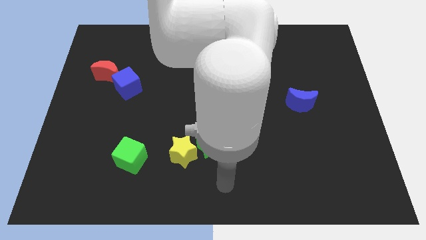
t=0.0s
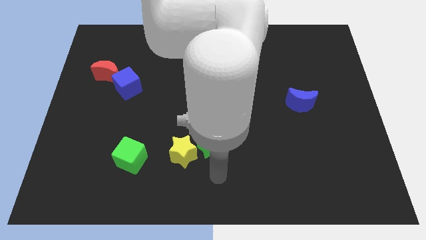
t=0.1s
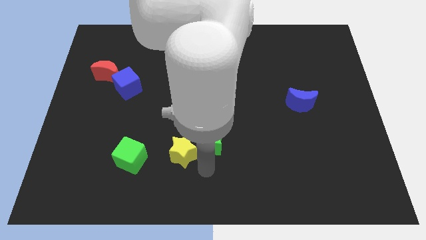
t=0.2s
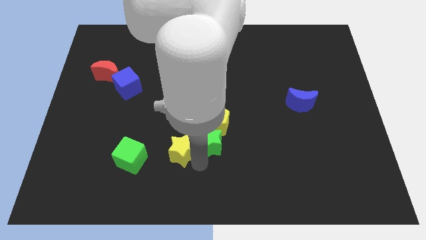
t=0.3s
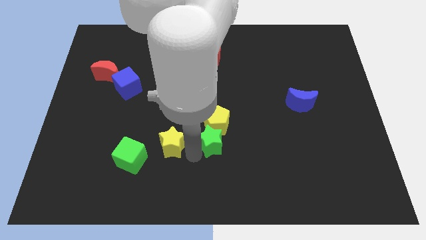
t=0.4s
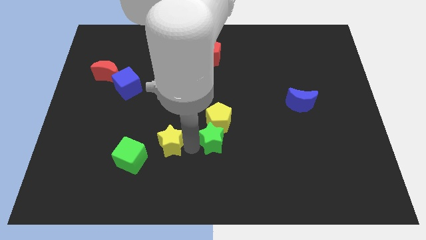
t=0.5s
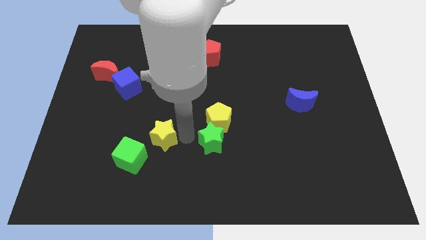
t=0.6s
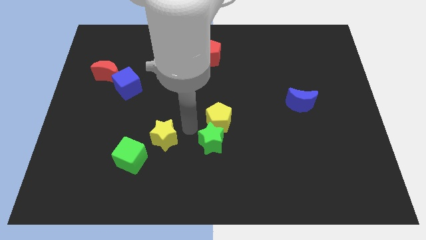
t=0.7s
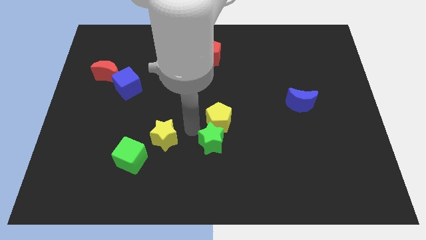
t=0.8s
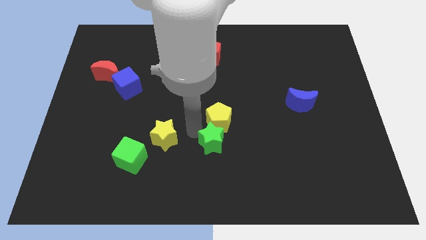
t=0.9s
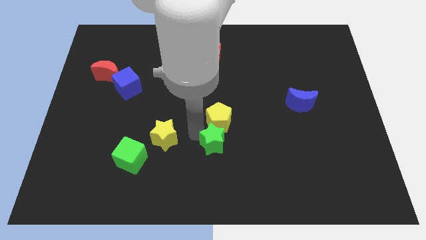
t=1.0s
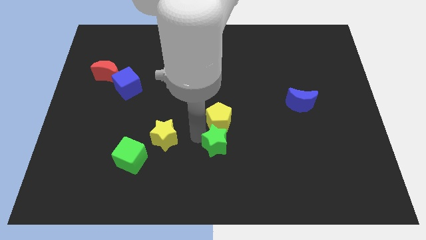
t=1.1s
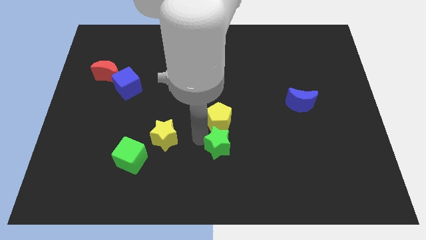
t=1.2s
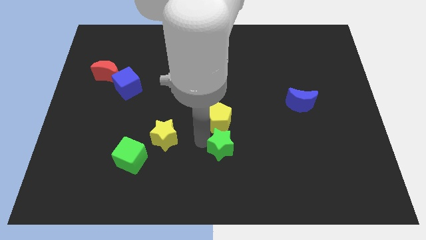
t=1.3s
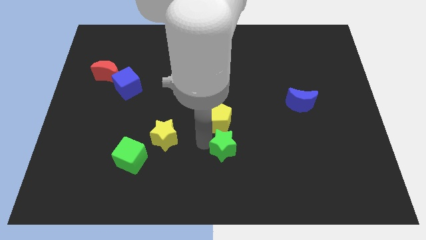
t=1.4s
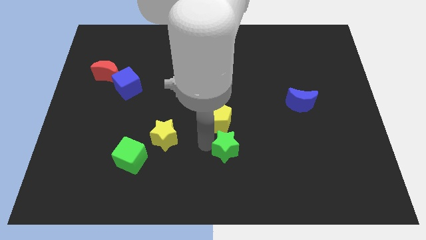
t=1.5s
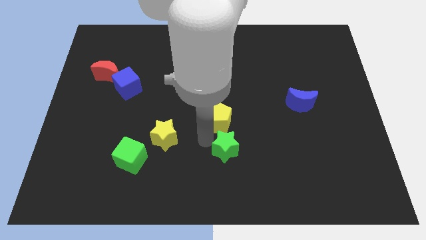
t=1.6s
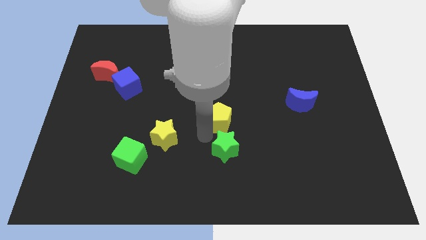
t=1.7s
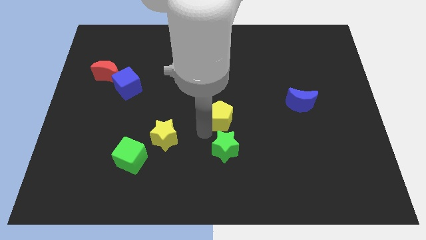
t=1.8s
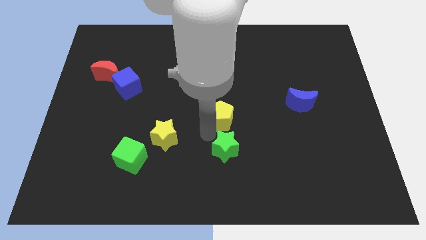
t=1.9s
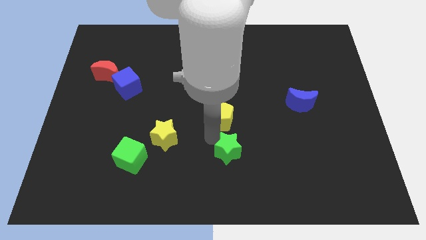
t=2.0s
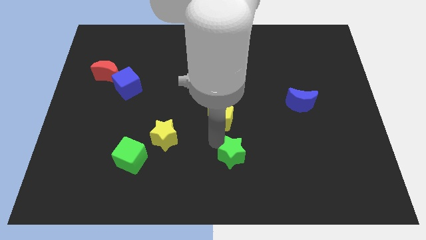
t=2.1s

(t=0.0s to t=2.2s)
move the green star away from the yellow pentagon and yellow star

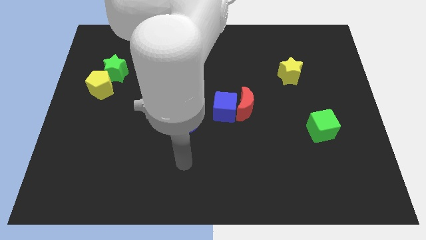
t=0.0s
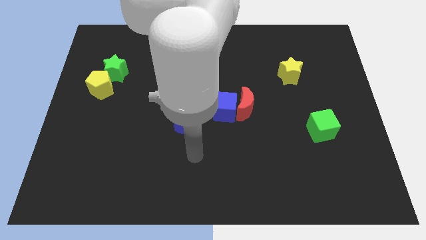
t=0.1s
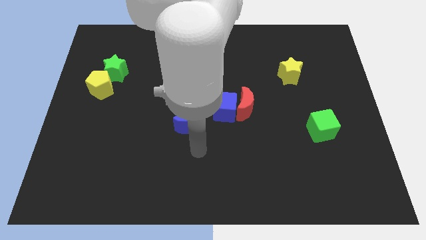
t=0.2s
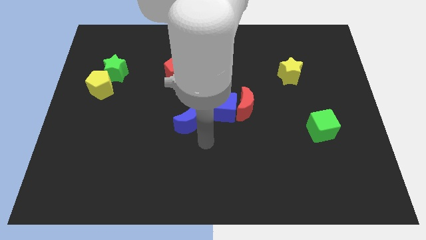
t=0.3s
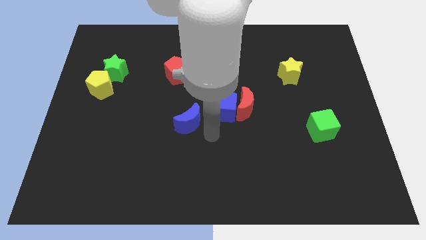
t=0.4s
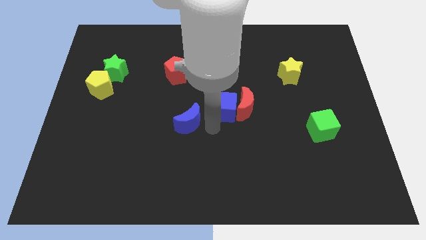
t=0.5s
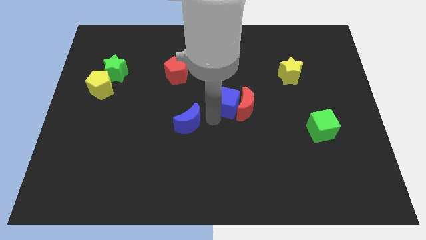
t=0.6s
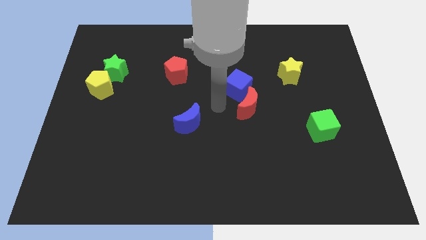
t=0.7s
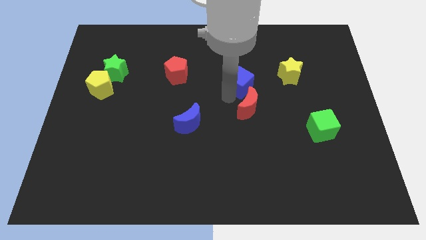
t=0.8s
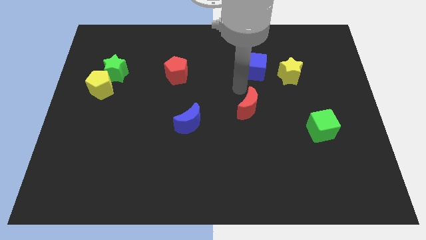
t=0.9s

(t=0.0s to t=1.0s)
pull the red moon apart from the blue cube

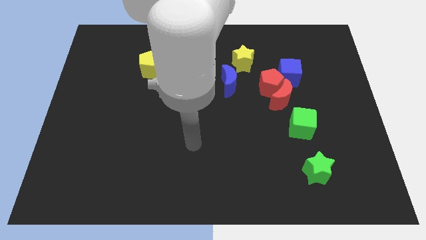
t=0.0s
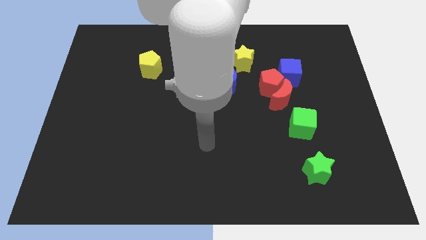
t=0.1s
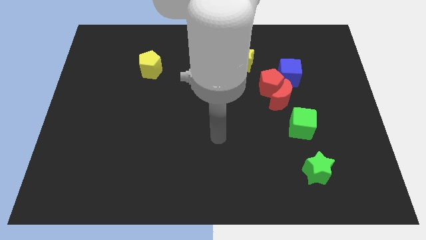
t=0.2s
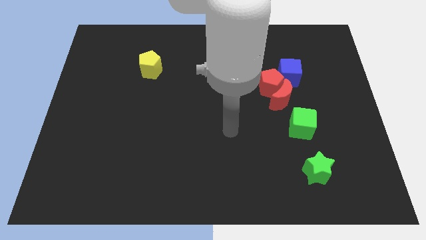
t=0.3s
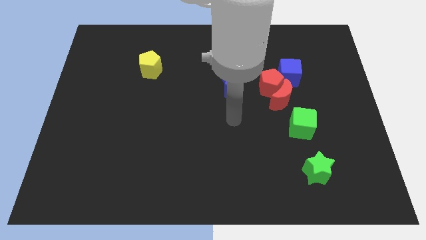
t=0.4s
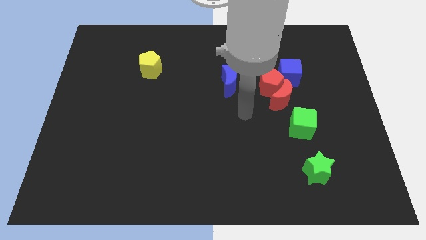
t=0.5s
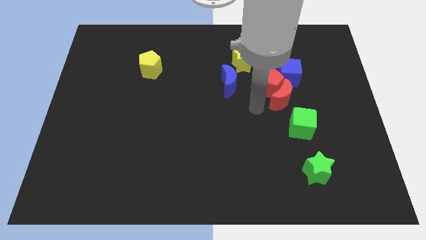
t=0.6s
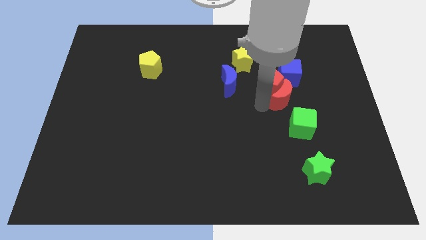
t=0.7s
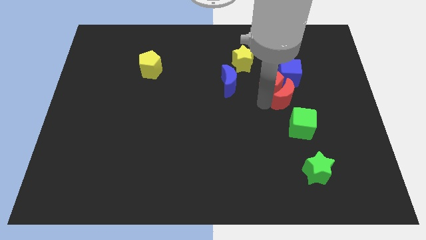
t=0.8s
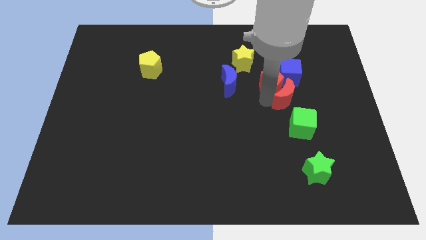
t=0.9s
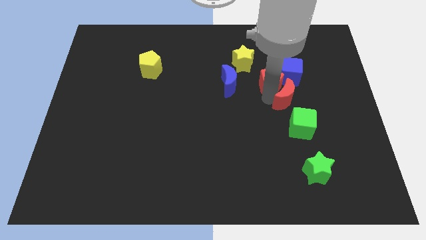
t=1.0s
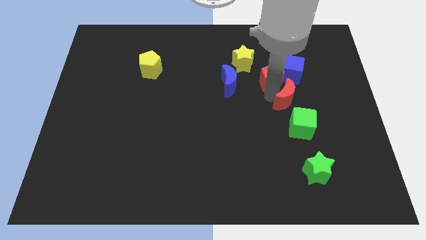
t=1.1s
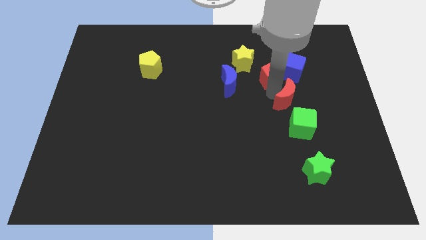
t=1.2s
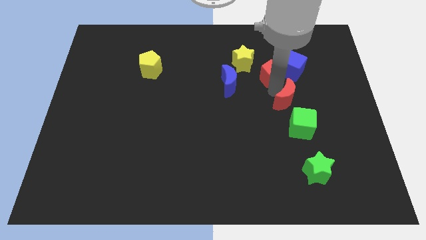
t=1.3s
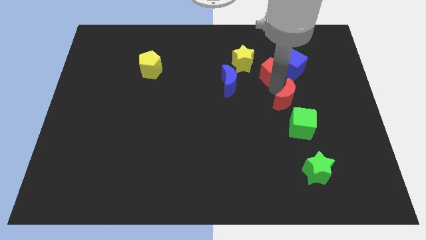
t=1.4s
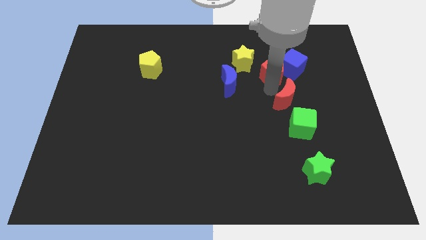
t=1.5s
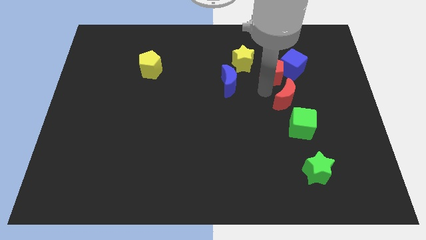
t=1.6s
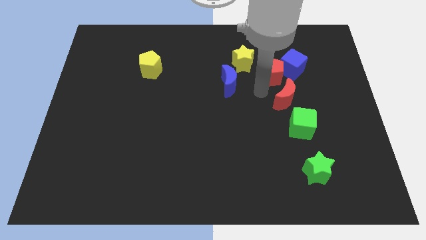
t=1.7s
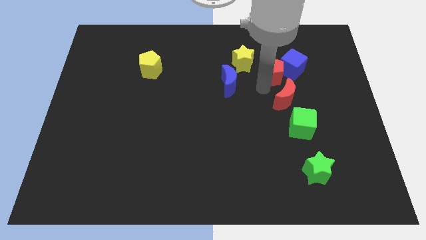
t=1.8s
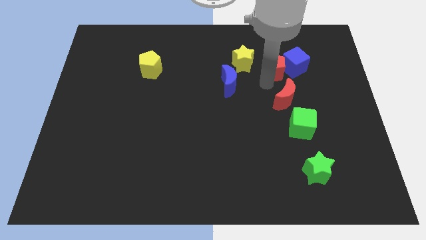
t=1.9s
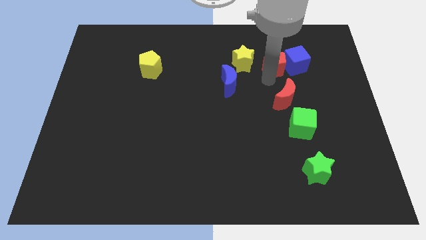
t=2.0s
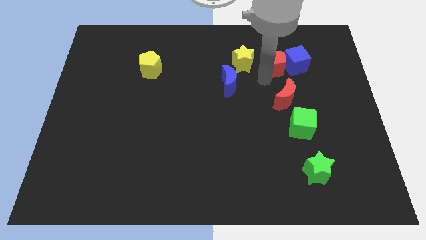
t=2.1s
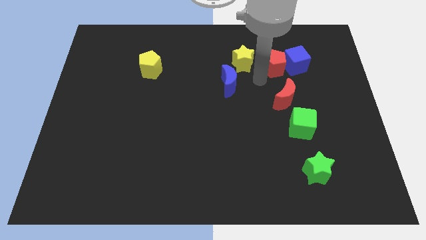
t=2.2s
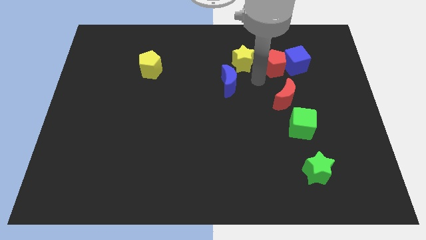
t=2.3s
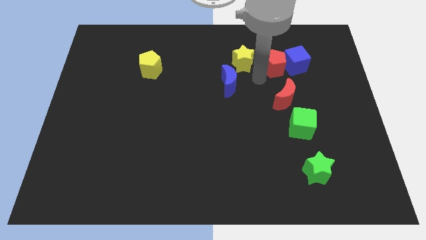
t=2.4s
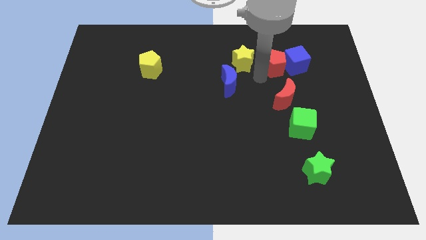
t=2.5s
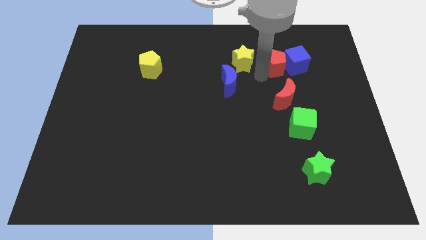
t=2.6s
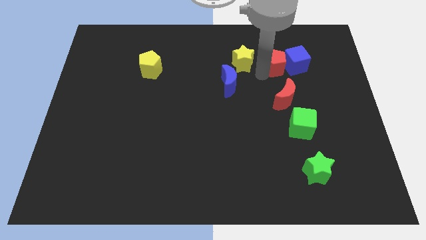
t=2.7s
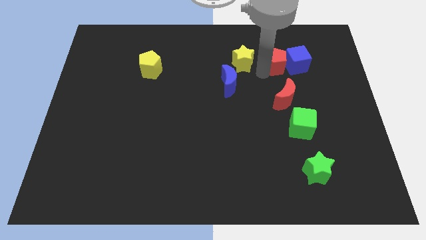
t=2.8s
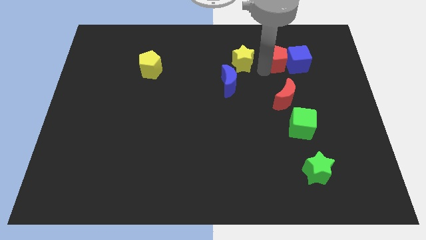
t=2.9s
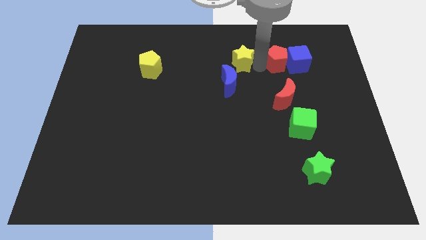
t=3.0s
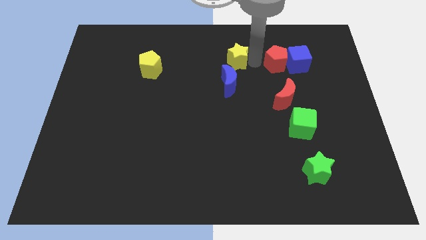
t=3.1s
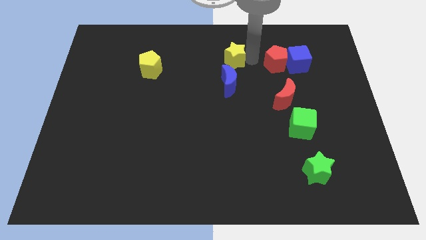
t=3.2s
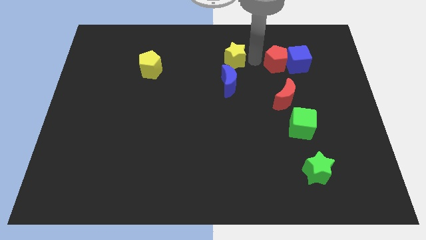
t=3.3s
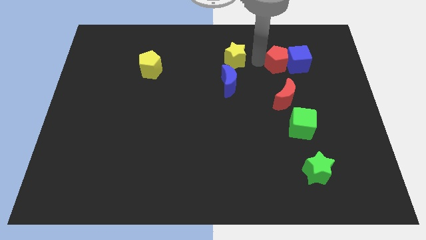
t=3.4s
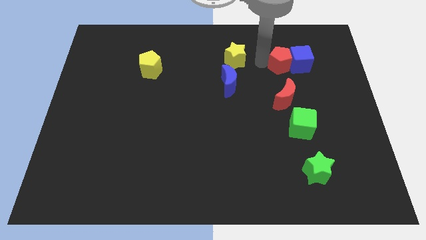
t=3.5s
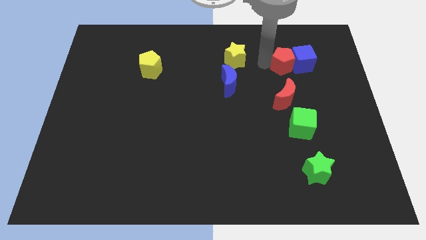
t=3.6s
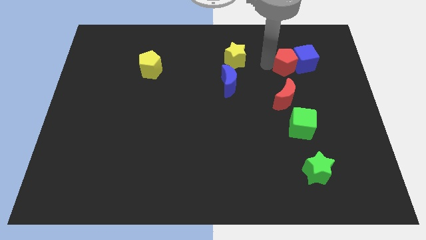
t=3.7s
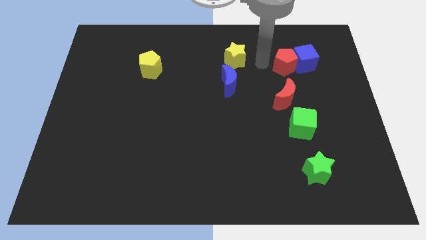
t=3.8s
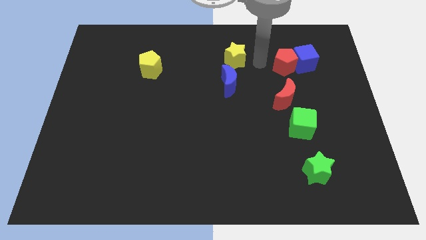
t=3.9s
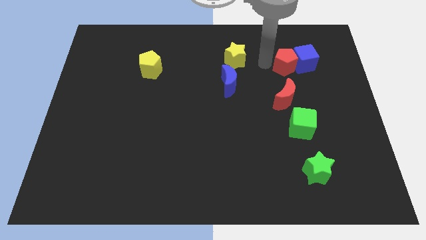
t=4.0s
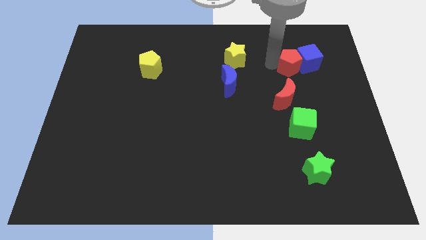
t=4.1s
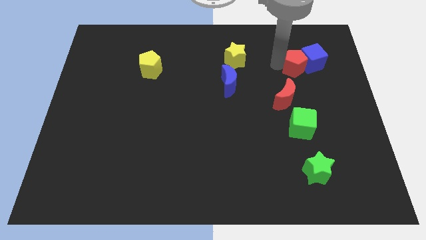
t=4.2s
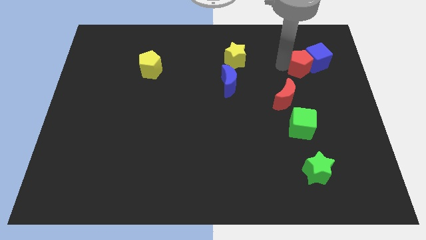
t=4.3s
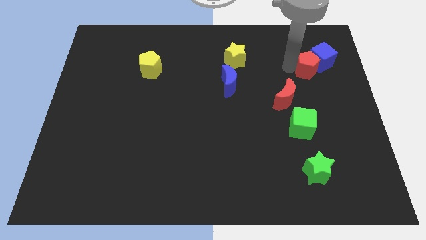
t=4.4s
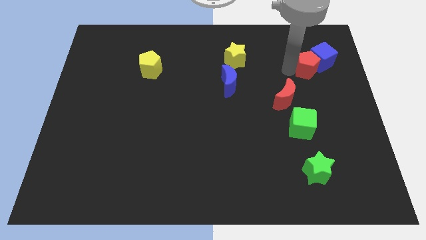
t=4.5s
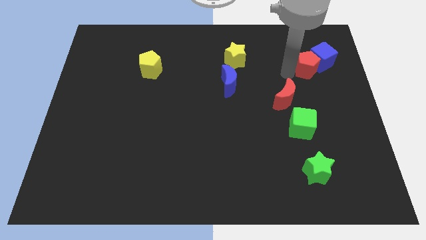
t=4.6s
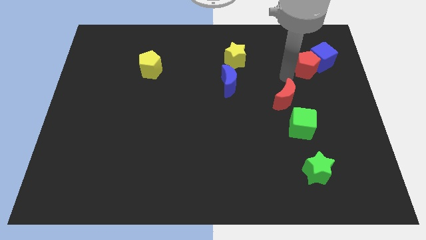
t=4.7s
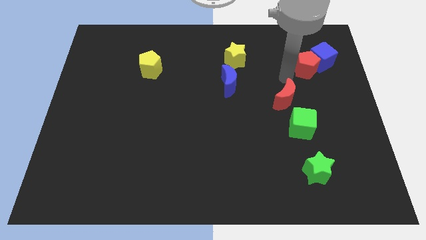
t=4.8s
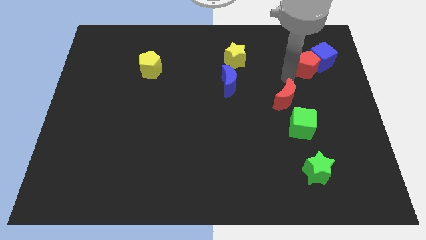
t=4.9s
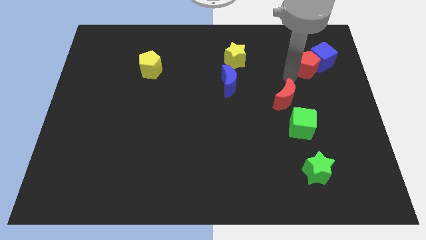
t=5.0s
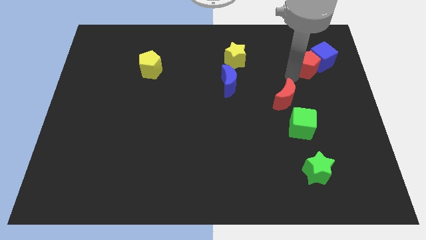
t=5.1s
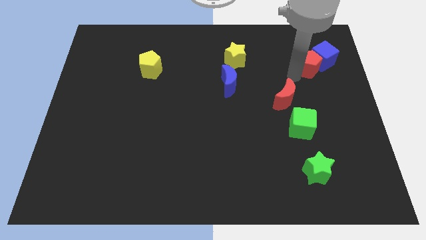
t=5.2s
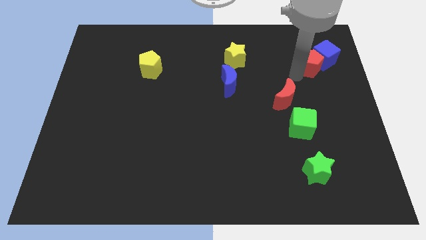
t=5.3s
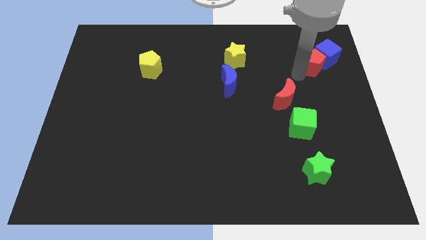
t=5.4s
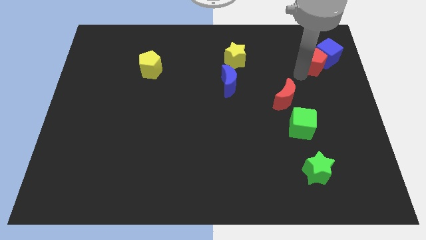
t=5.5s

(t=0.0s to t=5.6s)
separate the red pentagon from the red moon, blue cube, and blue moon

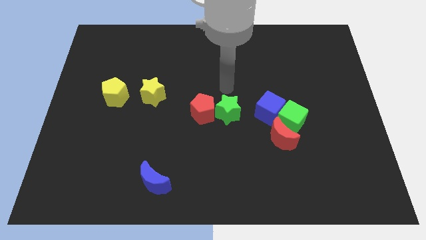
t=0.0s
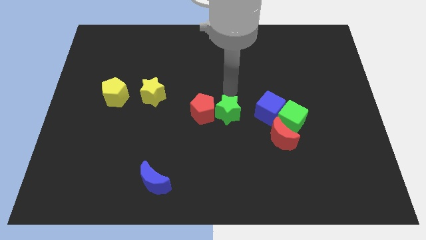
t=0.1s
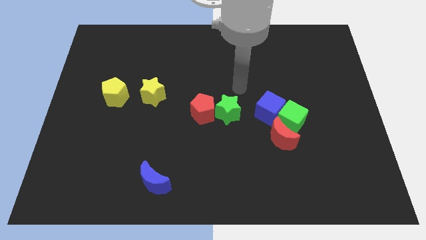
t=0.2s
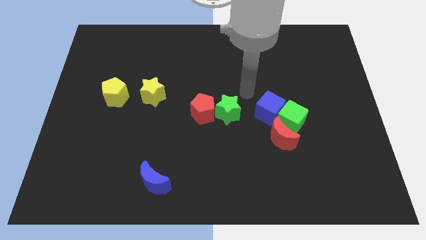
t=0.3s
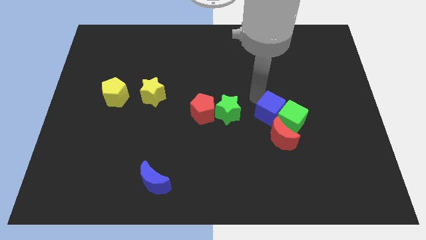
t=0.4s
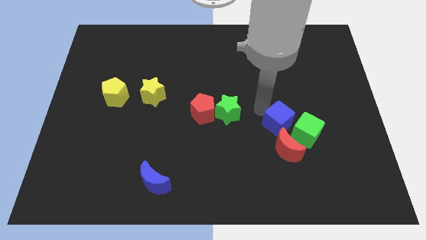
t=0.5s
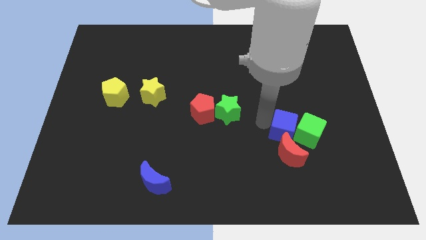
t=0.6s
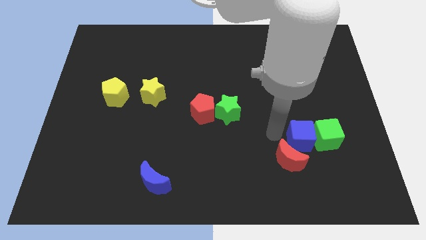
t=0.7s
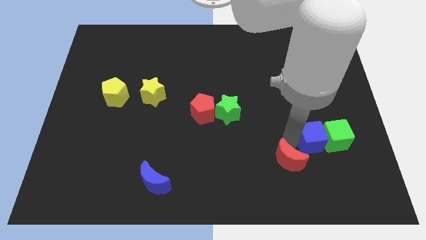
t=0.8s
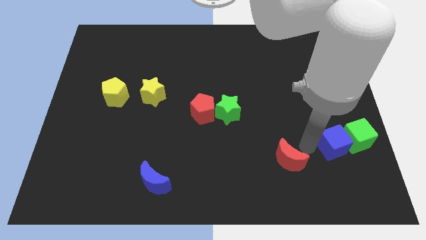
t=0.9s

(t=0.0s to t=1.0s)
move the green cube away from the blue cube and red moon
